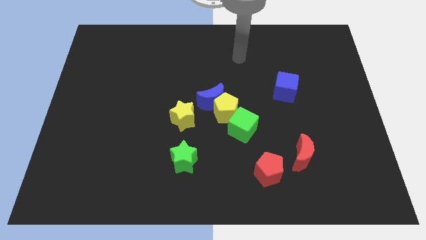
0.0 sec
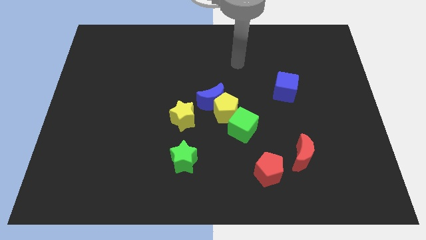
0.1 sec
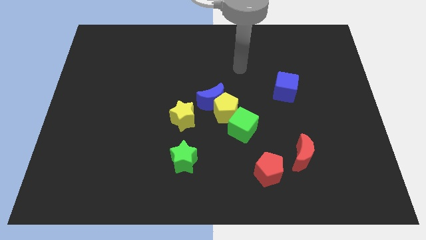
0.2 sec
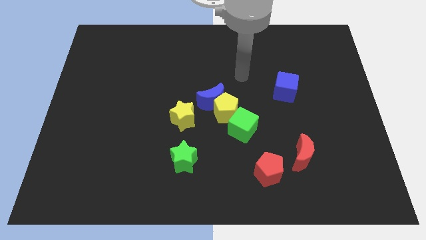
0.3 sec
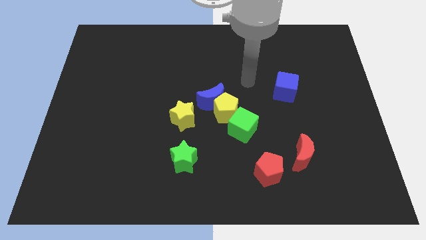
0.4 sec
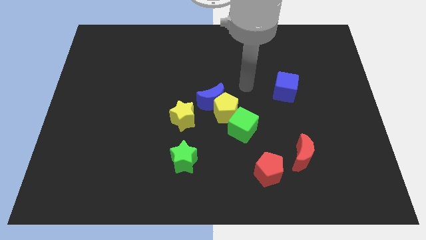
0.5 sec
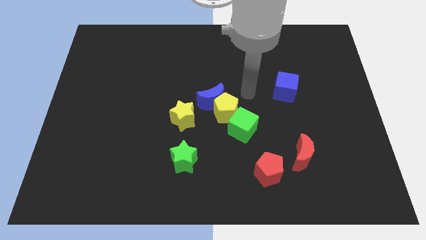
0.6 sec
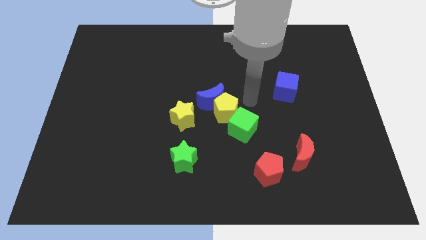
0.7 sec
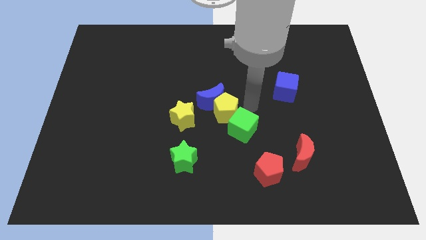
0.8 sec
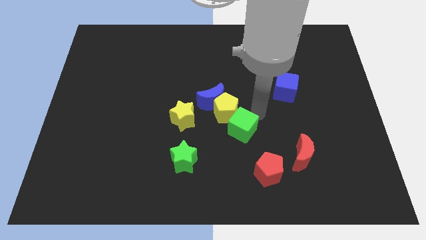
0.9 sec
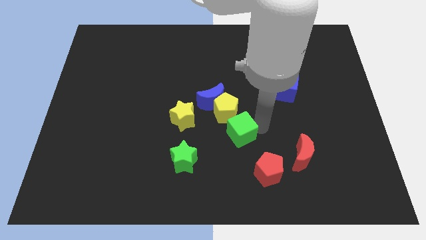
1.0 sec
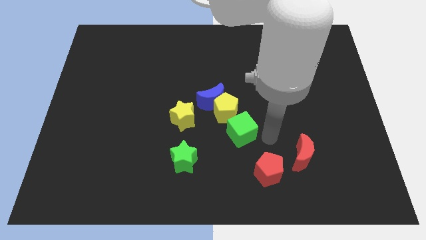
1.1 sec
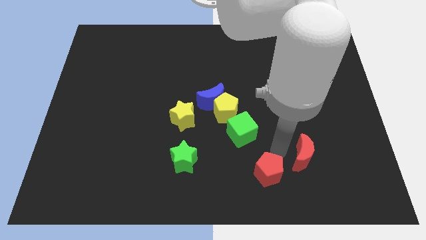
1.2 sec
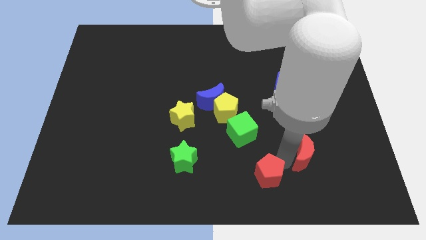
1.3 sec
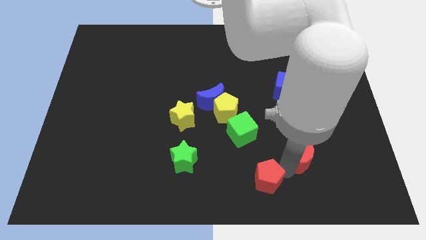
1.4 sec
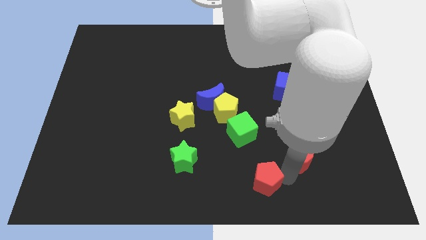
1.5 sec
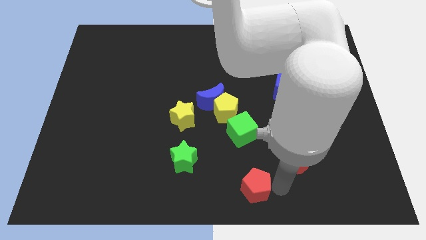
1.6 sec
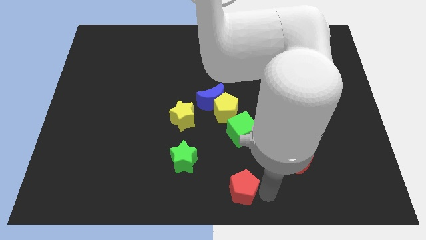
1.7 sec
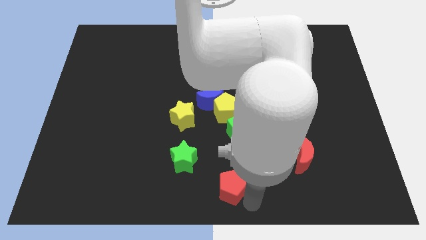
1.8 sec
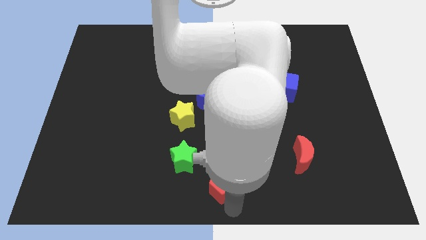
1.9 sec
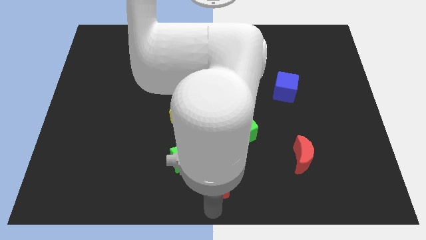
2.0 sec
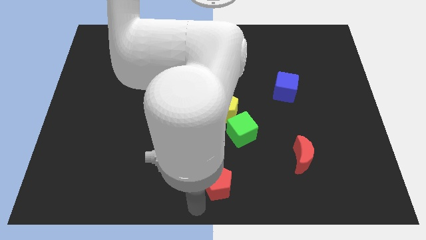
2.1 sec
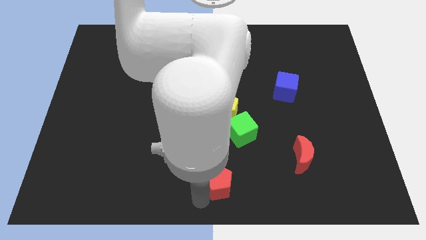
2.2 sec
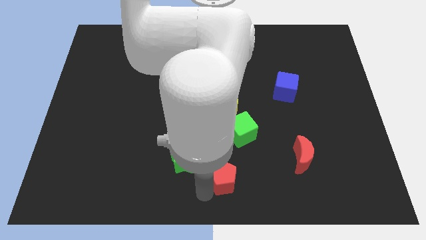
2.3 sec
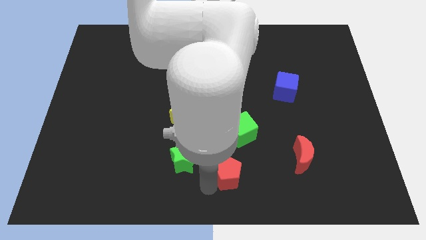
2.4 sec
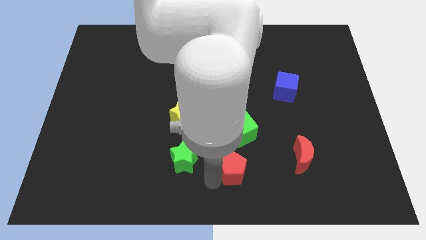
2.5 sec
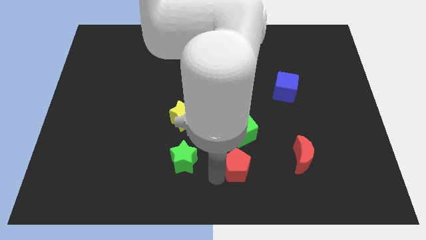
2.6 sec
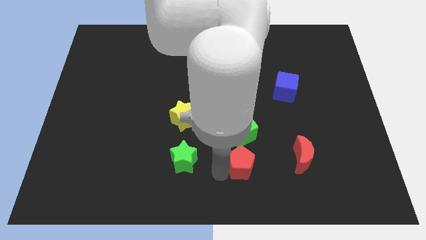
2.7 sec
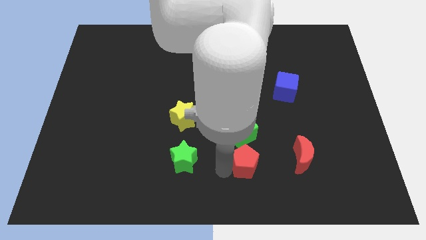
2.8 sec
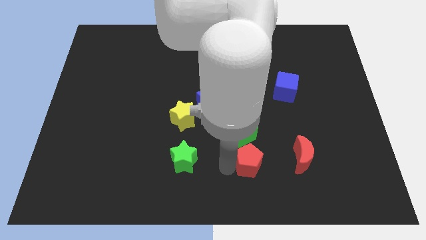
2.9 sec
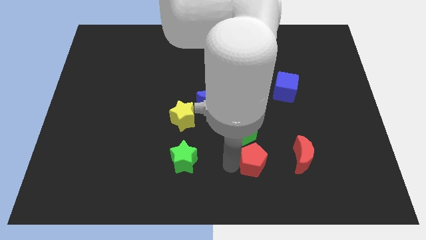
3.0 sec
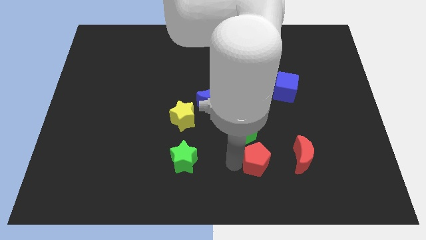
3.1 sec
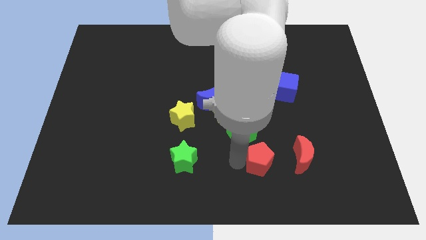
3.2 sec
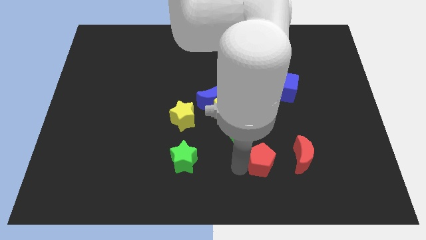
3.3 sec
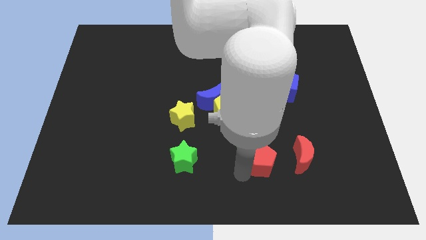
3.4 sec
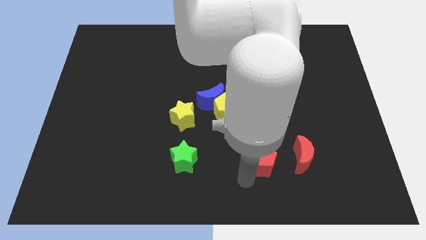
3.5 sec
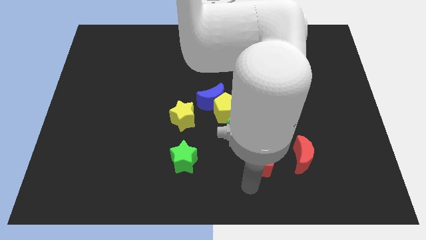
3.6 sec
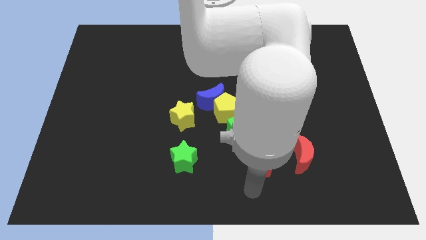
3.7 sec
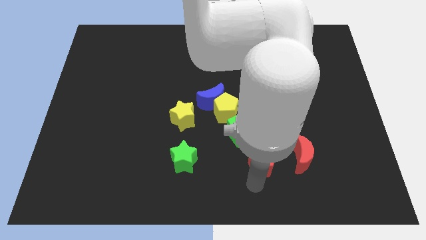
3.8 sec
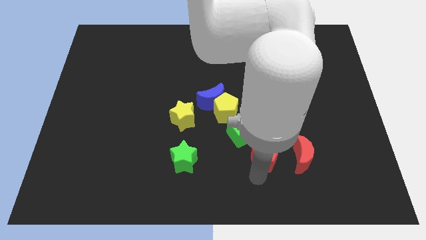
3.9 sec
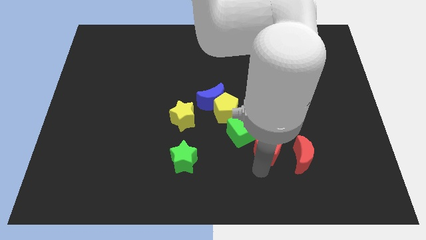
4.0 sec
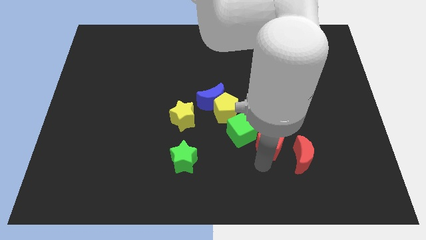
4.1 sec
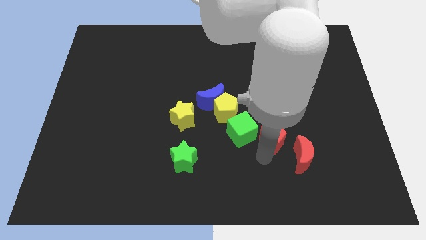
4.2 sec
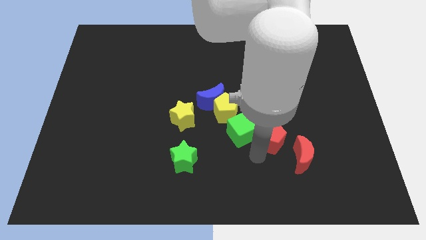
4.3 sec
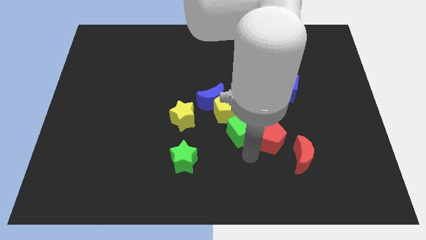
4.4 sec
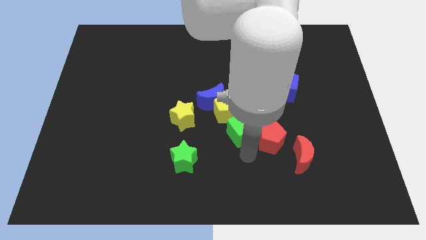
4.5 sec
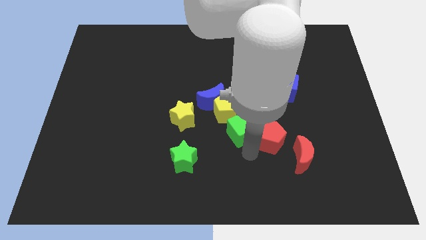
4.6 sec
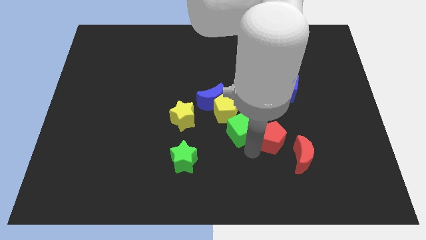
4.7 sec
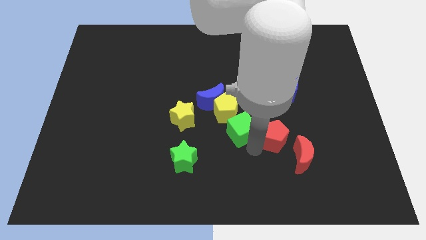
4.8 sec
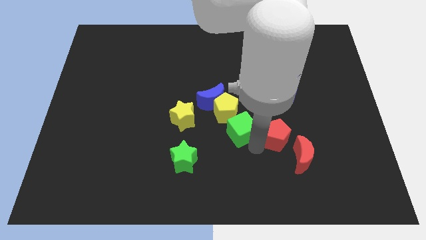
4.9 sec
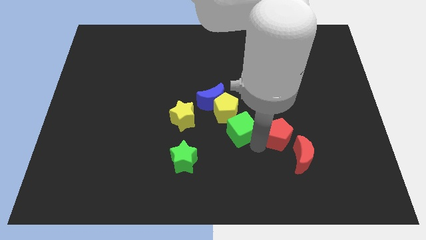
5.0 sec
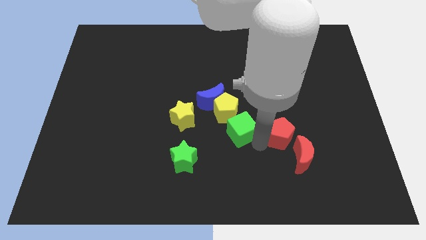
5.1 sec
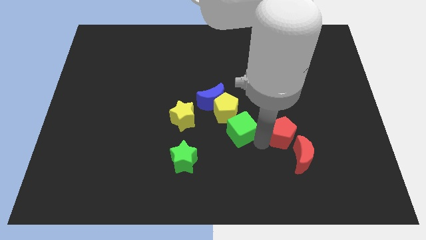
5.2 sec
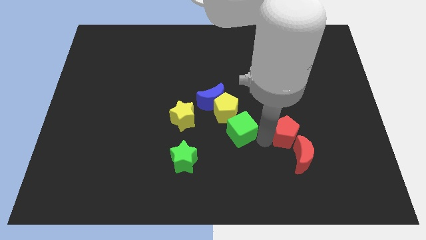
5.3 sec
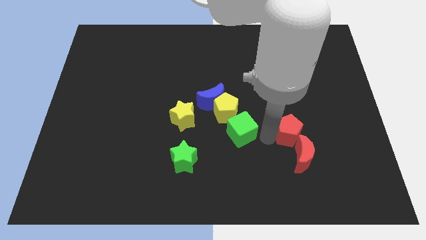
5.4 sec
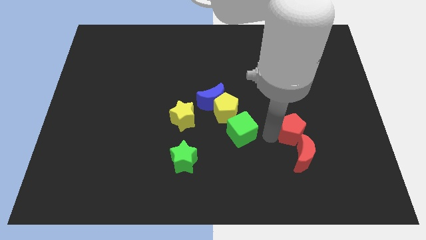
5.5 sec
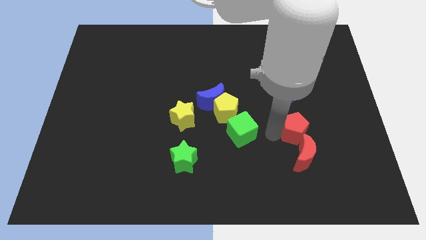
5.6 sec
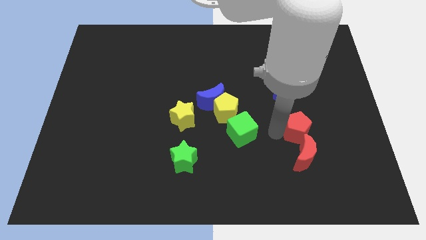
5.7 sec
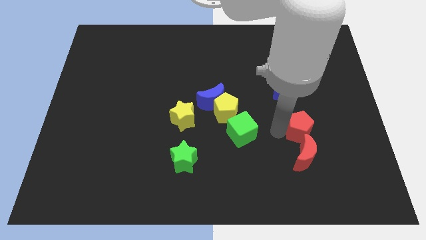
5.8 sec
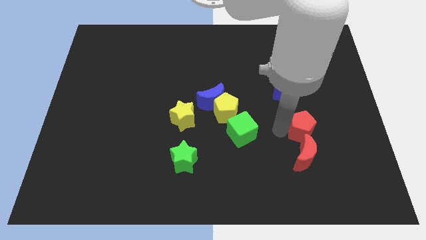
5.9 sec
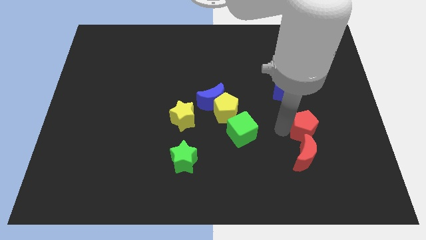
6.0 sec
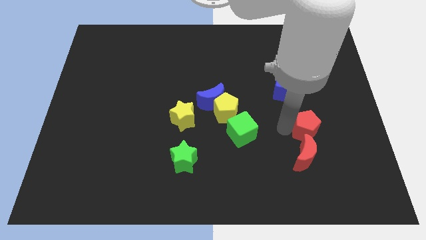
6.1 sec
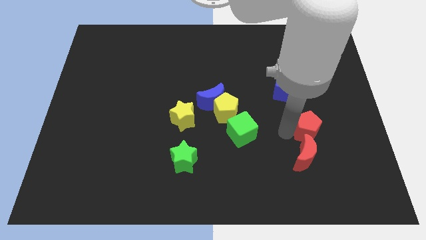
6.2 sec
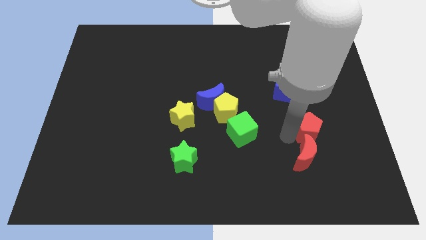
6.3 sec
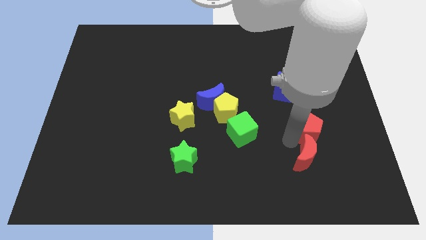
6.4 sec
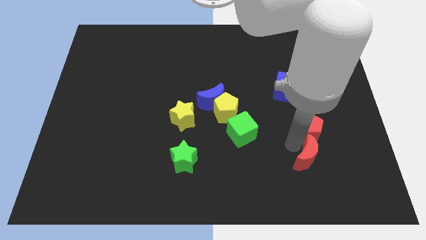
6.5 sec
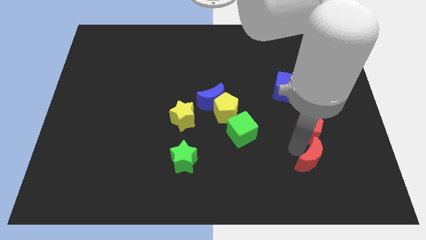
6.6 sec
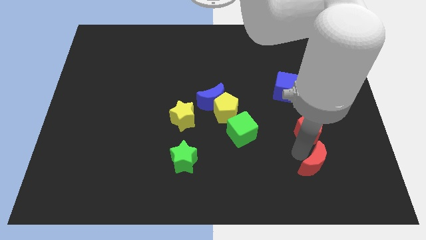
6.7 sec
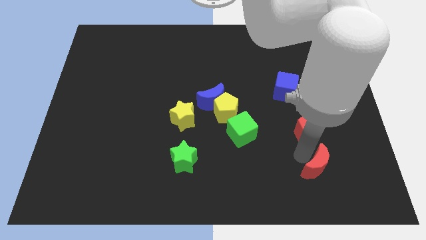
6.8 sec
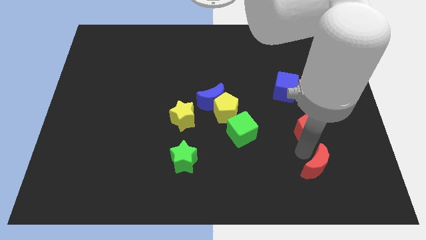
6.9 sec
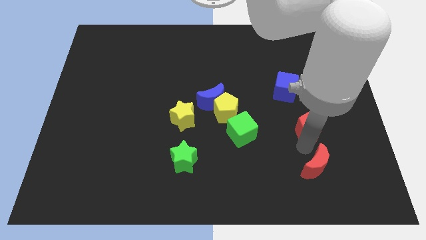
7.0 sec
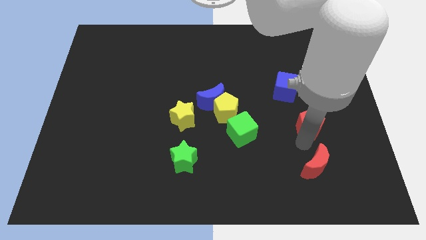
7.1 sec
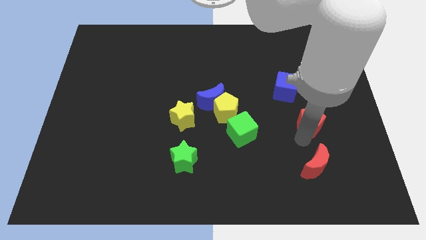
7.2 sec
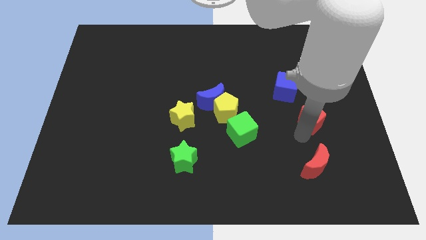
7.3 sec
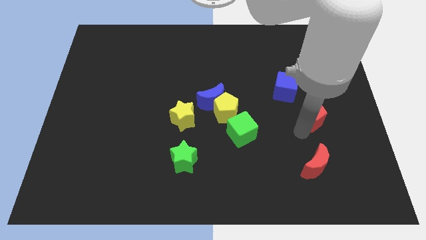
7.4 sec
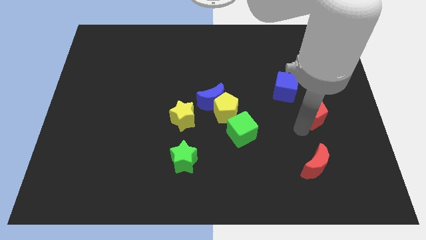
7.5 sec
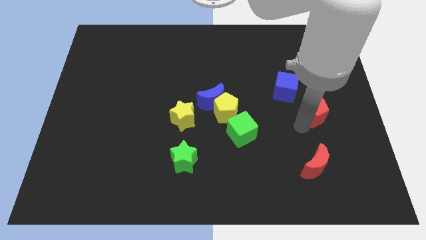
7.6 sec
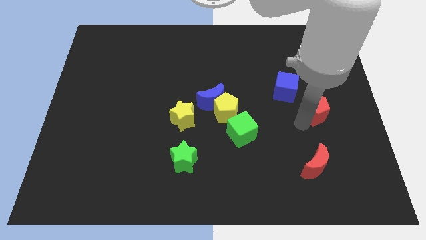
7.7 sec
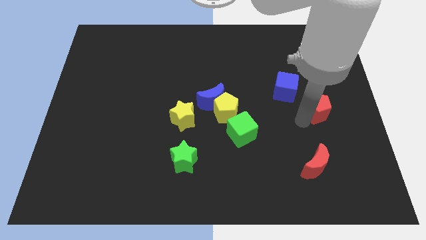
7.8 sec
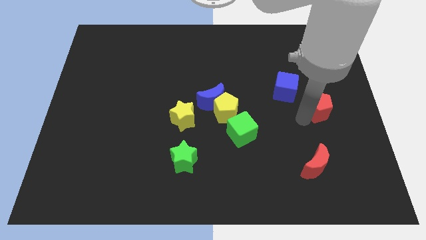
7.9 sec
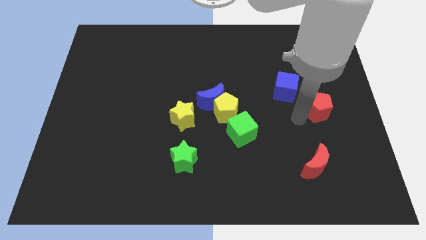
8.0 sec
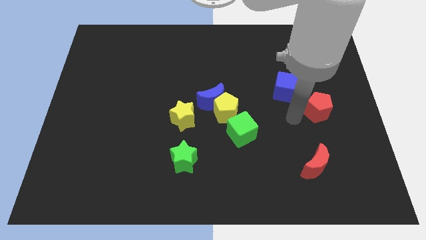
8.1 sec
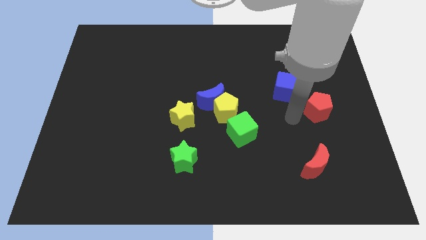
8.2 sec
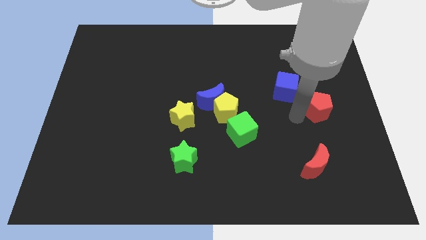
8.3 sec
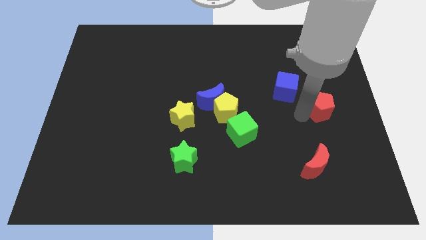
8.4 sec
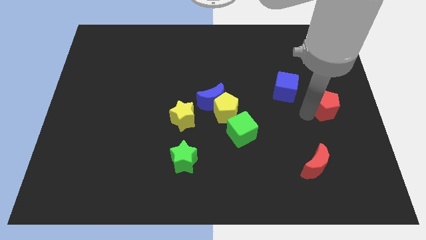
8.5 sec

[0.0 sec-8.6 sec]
push the red pentagon to the center right
